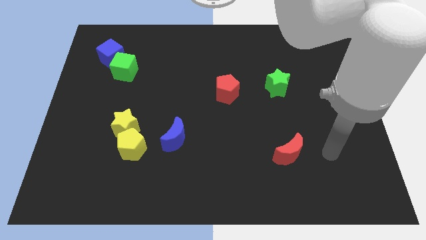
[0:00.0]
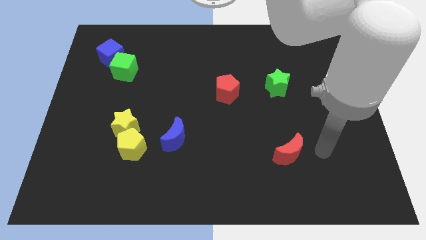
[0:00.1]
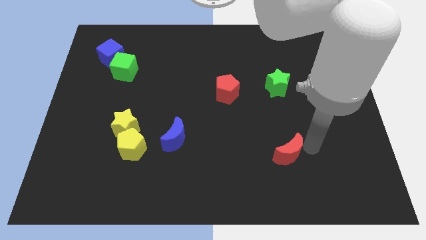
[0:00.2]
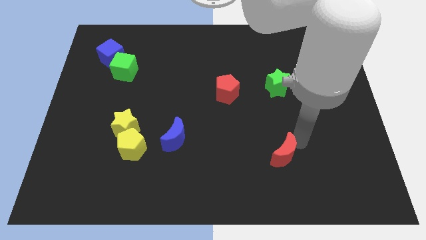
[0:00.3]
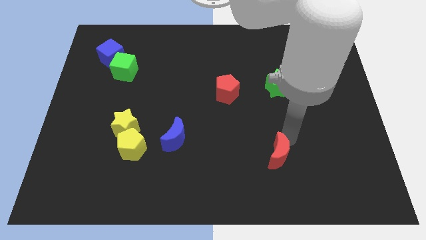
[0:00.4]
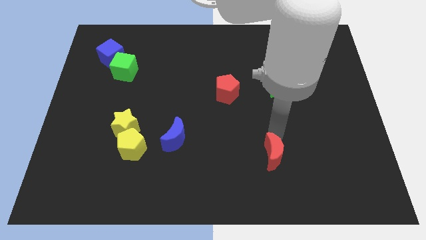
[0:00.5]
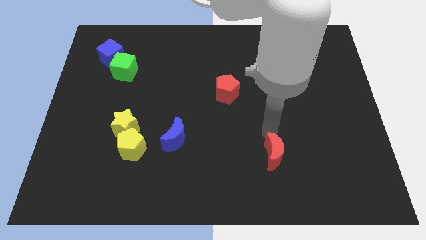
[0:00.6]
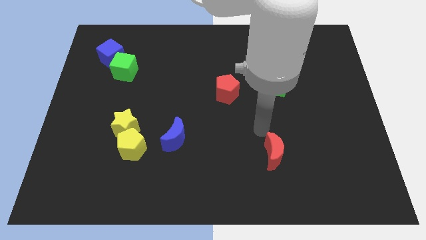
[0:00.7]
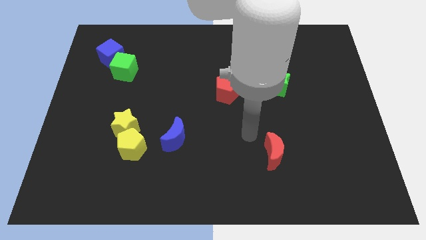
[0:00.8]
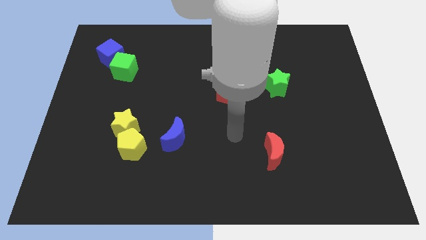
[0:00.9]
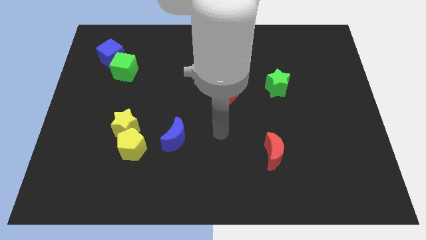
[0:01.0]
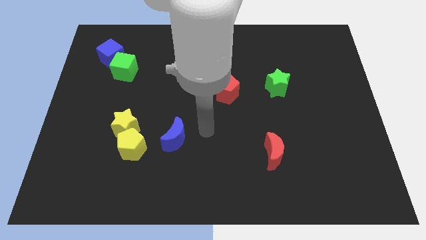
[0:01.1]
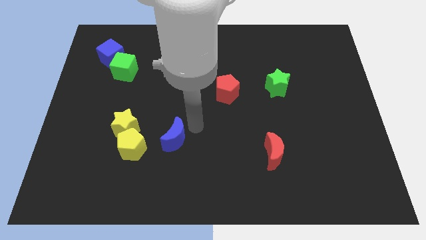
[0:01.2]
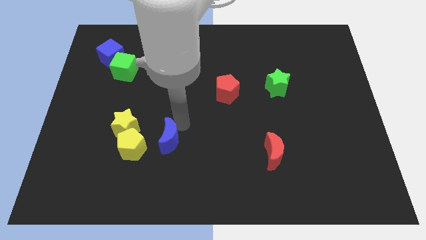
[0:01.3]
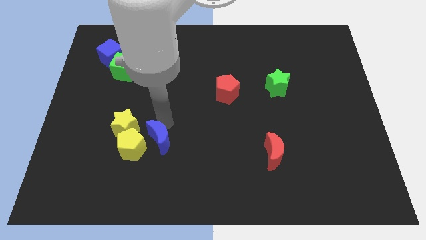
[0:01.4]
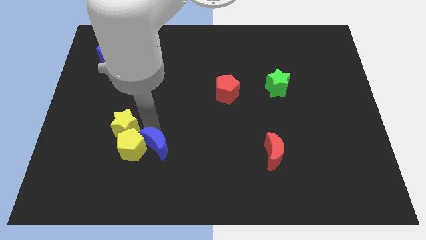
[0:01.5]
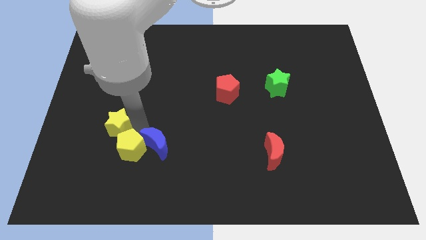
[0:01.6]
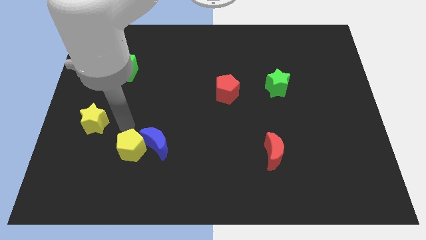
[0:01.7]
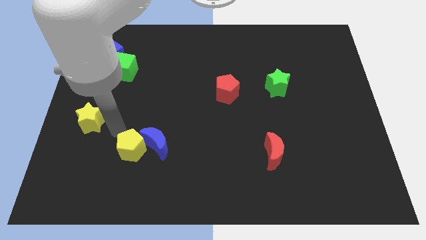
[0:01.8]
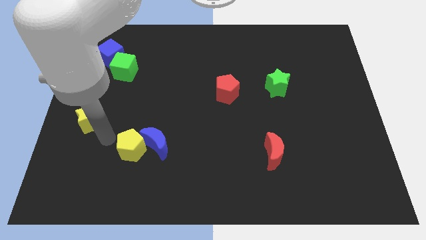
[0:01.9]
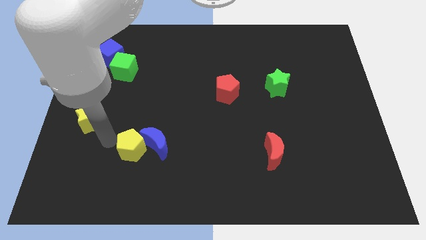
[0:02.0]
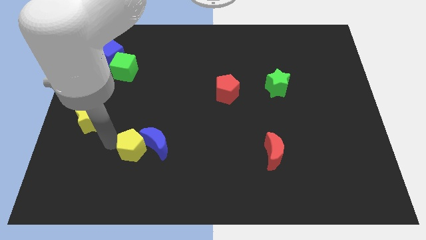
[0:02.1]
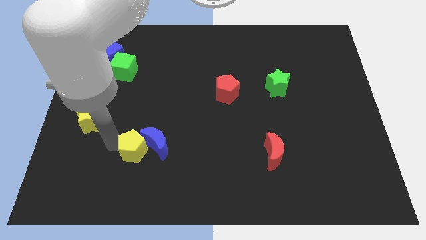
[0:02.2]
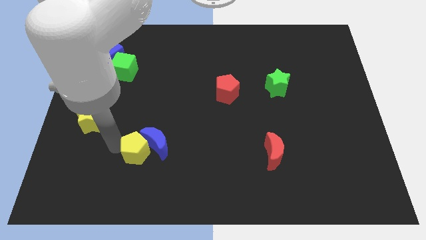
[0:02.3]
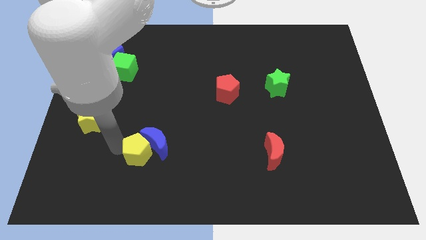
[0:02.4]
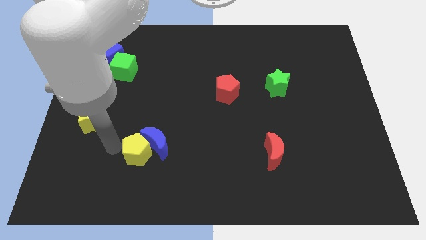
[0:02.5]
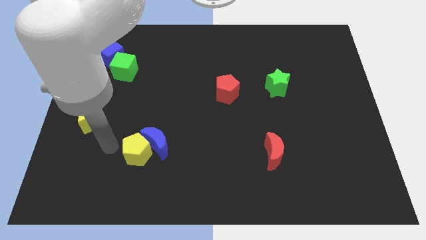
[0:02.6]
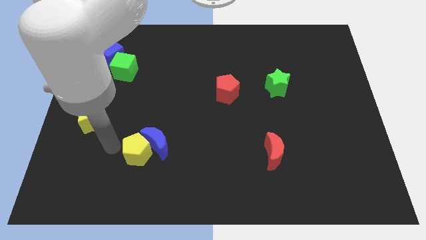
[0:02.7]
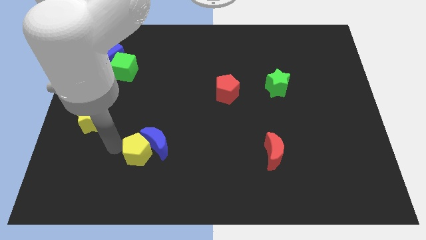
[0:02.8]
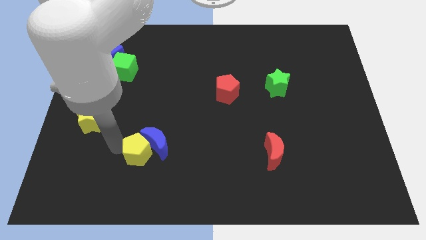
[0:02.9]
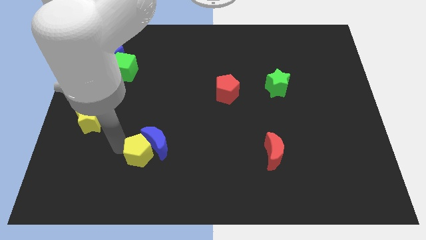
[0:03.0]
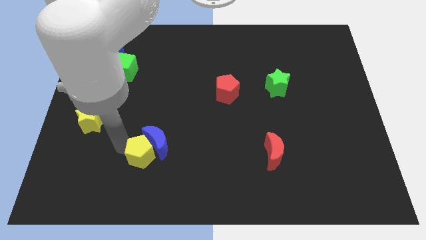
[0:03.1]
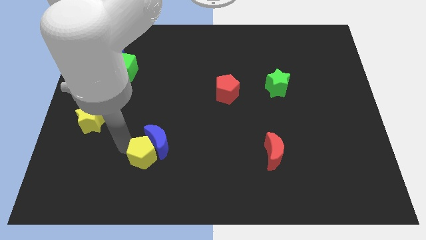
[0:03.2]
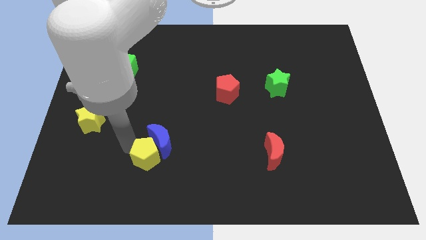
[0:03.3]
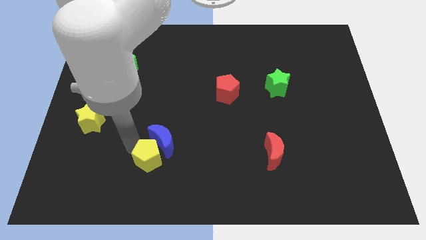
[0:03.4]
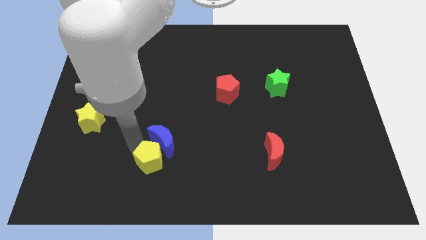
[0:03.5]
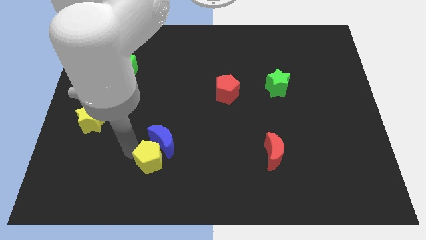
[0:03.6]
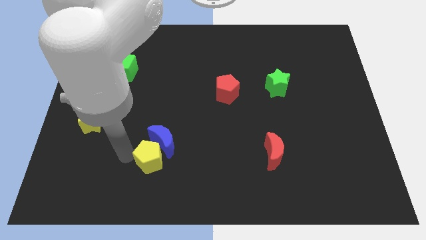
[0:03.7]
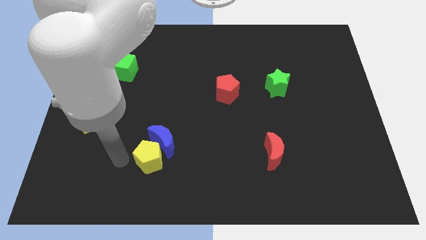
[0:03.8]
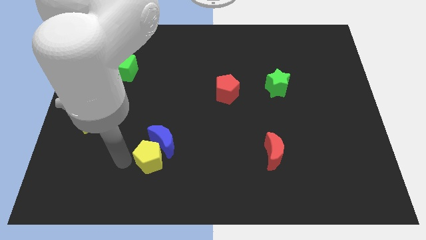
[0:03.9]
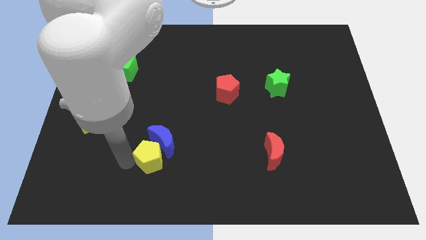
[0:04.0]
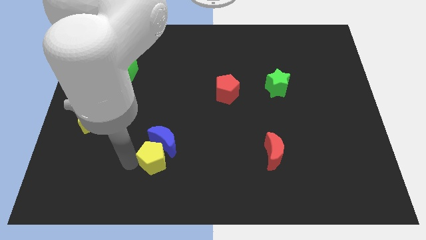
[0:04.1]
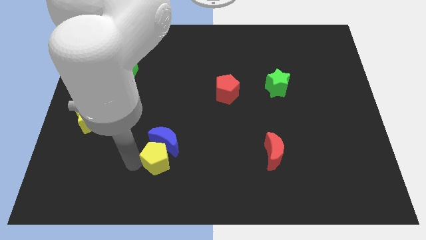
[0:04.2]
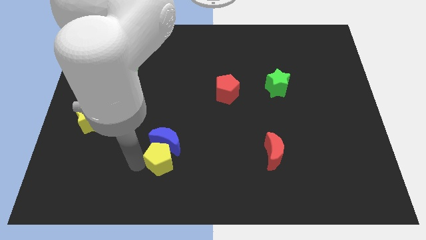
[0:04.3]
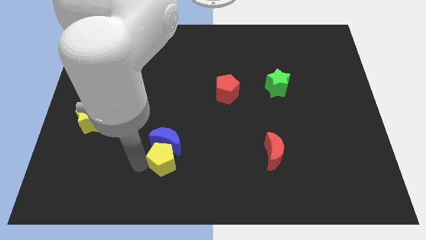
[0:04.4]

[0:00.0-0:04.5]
slide the yellow pentagon somewhat right

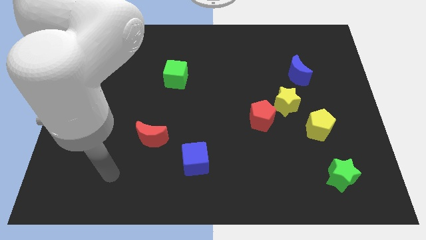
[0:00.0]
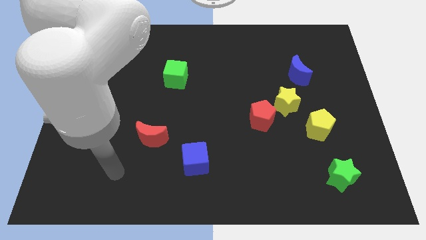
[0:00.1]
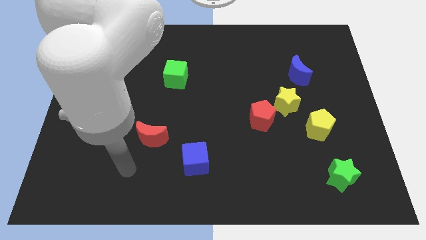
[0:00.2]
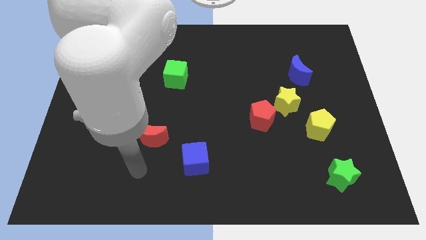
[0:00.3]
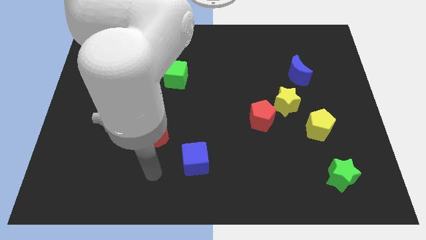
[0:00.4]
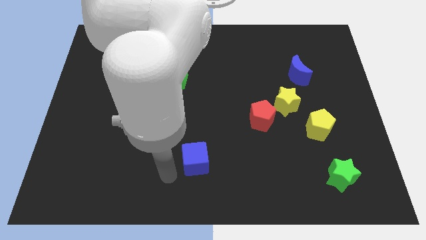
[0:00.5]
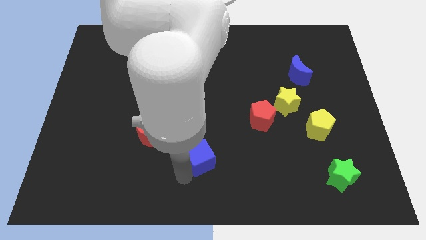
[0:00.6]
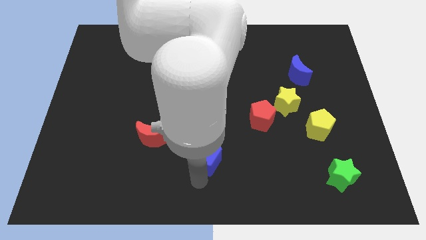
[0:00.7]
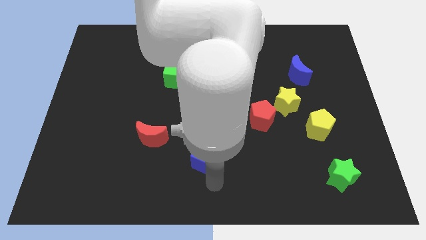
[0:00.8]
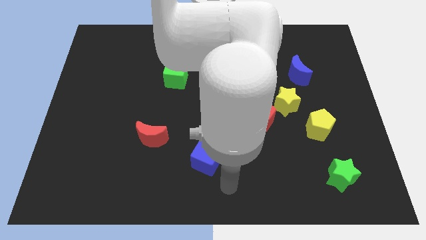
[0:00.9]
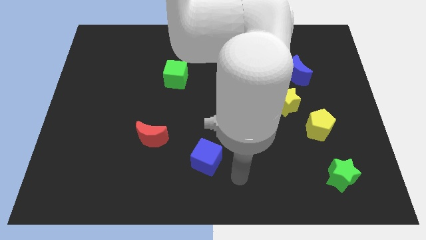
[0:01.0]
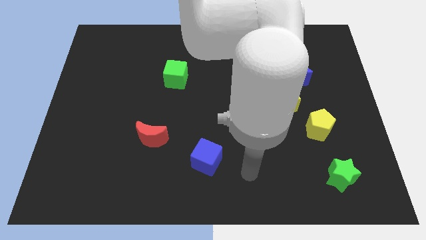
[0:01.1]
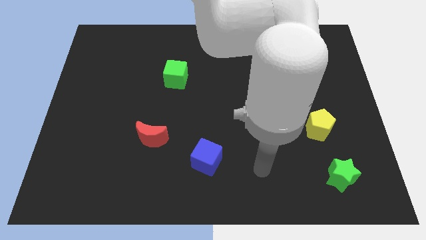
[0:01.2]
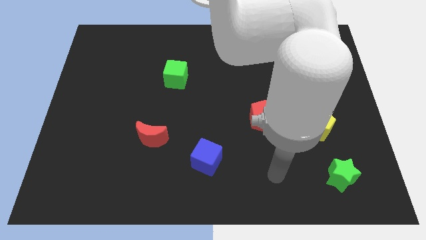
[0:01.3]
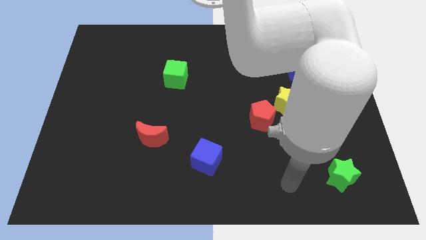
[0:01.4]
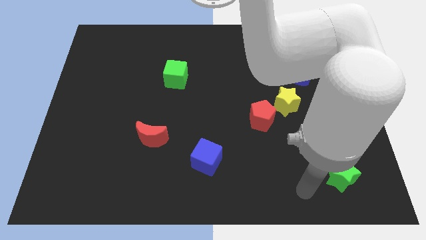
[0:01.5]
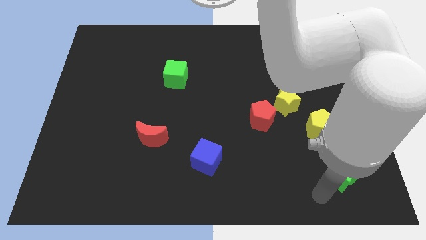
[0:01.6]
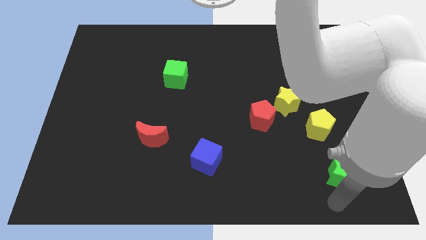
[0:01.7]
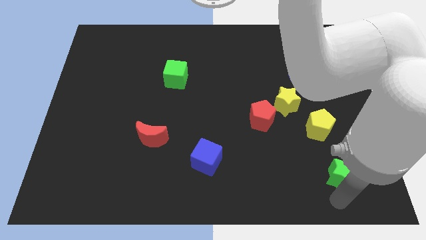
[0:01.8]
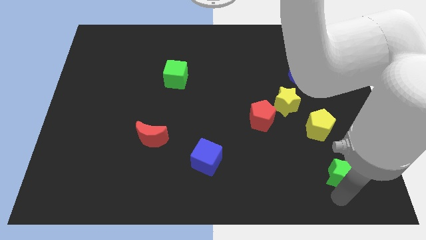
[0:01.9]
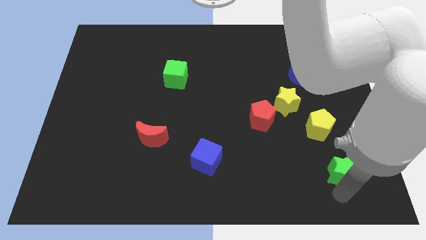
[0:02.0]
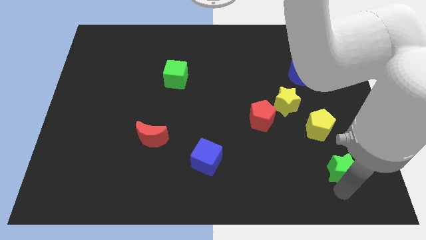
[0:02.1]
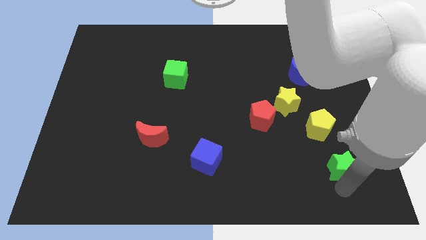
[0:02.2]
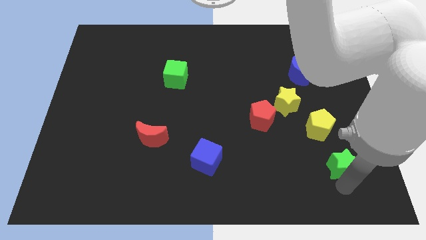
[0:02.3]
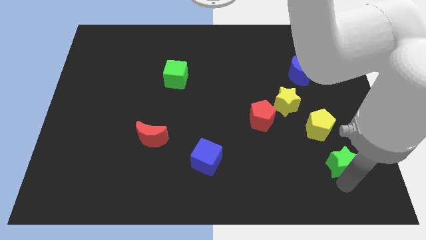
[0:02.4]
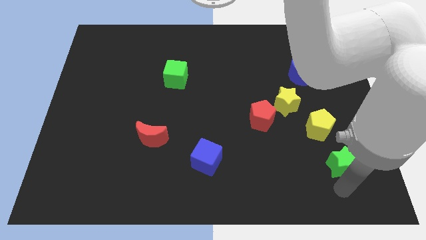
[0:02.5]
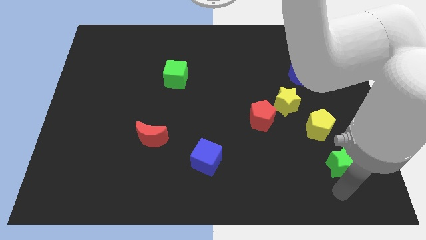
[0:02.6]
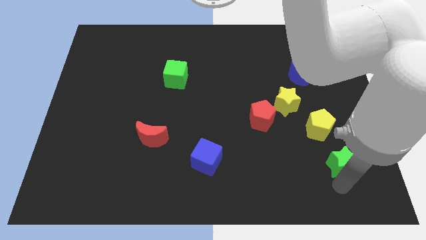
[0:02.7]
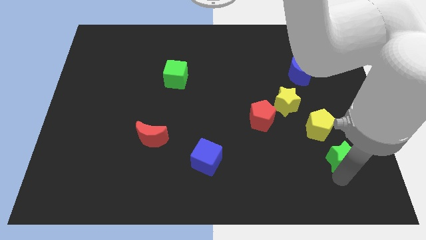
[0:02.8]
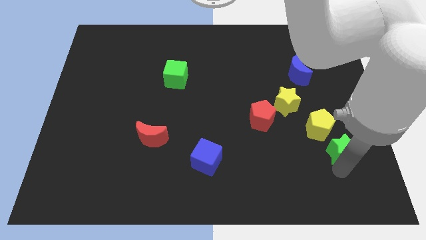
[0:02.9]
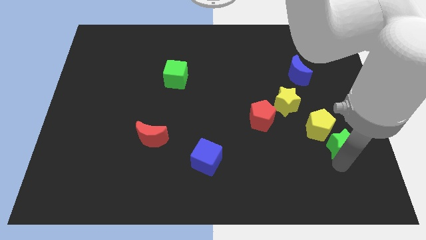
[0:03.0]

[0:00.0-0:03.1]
slide the green star up a little bit

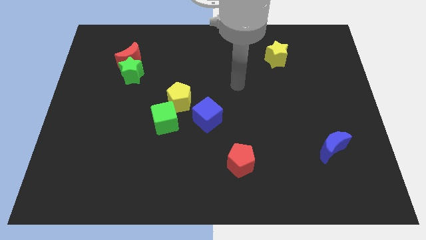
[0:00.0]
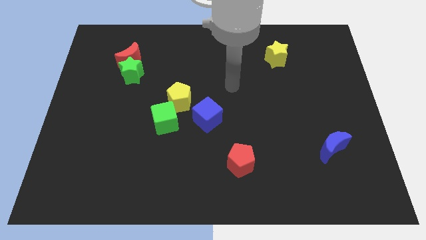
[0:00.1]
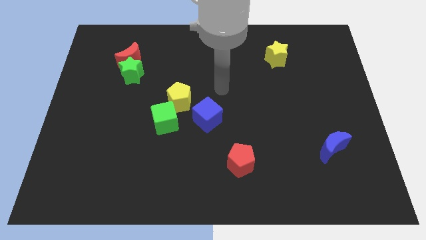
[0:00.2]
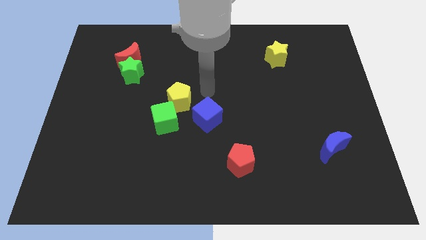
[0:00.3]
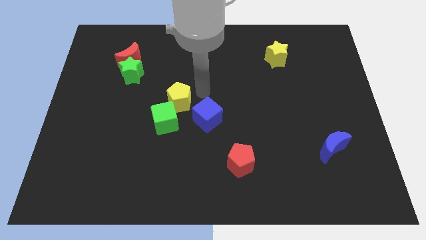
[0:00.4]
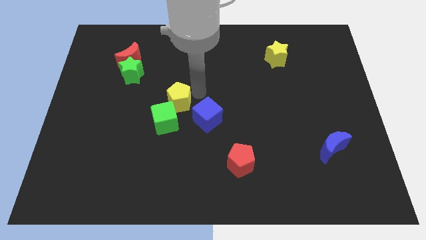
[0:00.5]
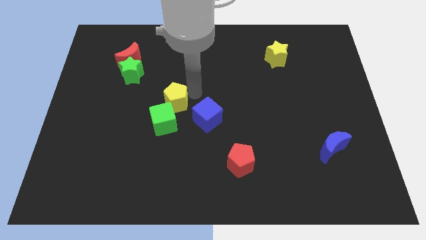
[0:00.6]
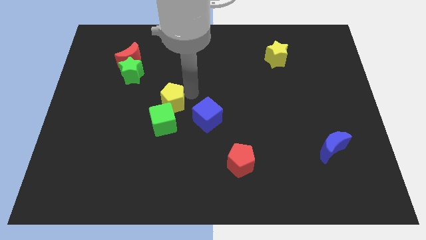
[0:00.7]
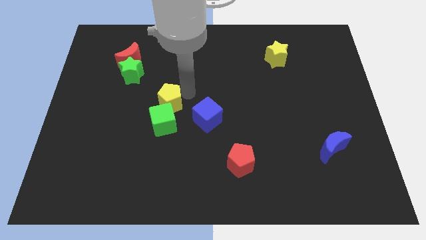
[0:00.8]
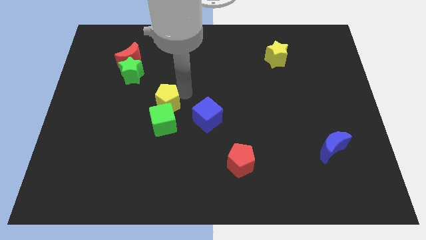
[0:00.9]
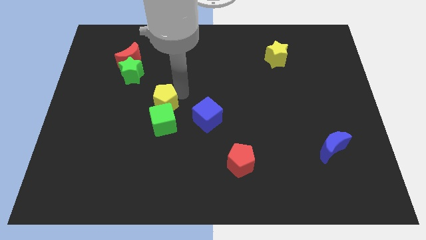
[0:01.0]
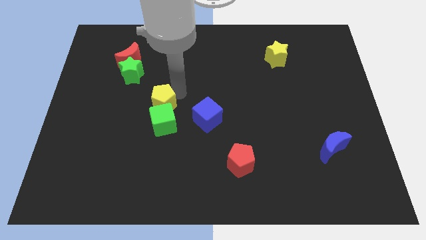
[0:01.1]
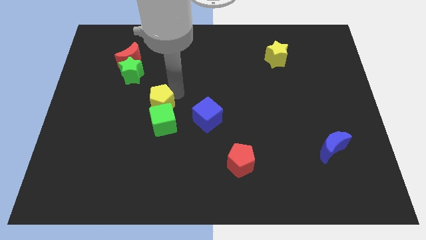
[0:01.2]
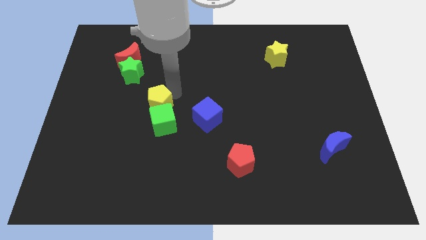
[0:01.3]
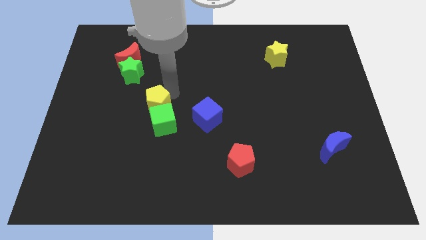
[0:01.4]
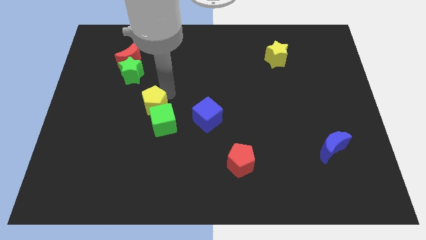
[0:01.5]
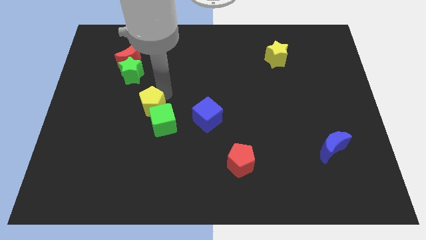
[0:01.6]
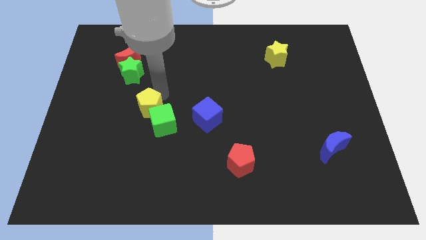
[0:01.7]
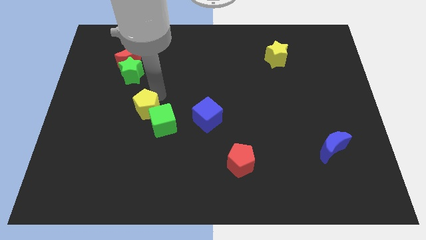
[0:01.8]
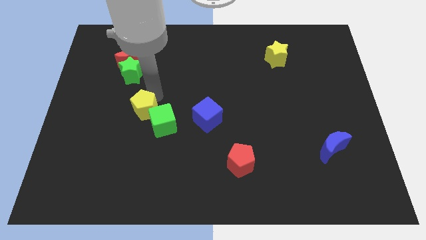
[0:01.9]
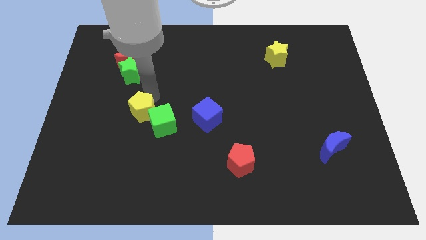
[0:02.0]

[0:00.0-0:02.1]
slide the yellow pentagon a little bit downwards and left diagonally
